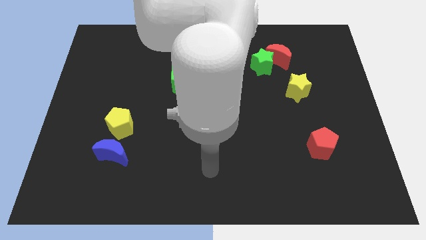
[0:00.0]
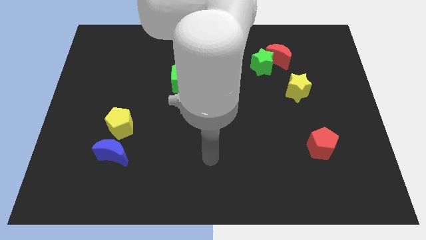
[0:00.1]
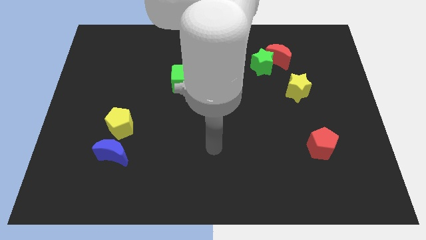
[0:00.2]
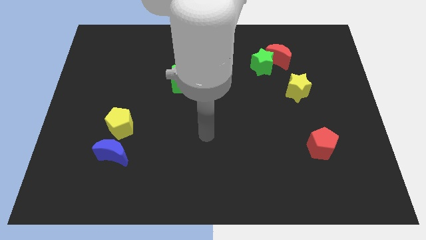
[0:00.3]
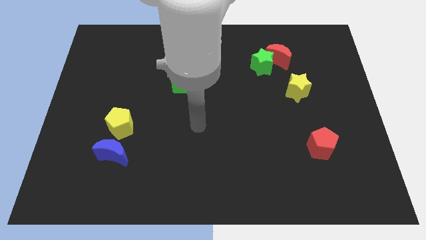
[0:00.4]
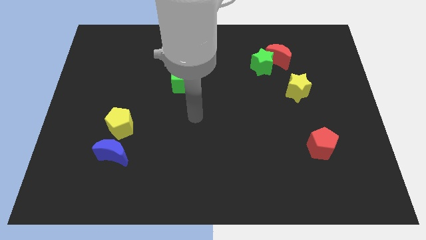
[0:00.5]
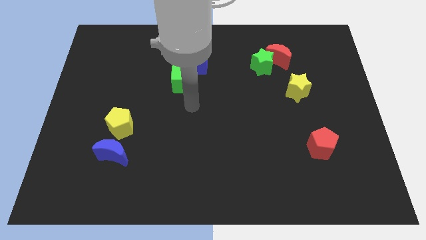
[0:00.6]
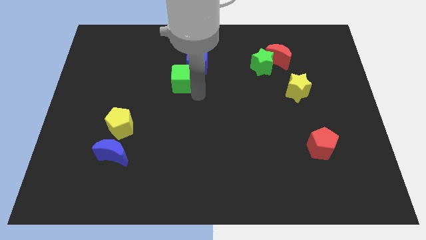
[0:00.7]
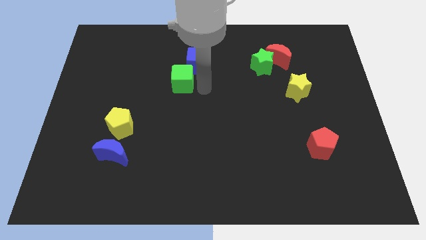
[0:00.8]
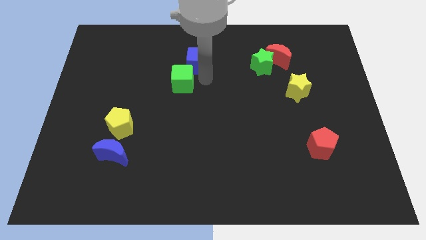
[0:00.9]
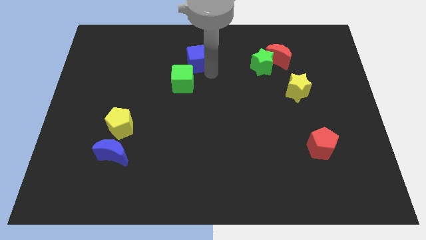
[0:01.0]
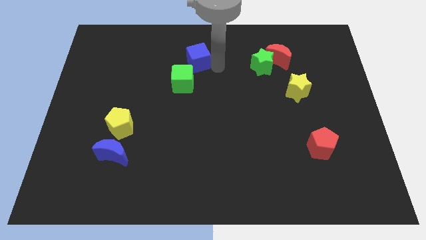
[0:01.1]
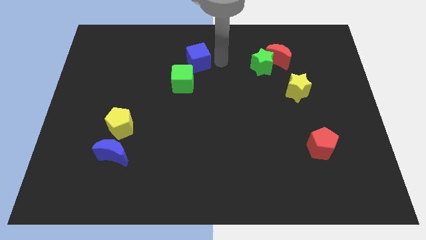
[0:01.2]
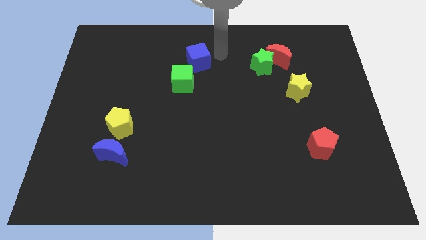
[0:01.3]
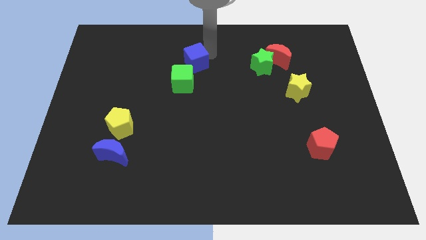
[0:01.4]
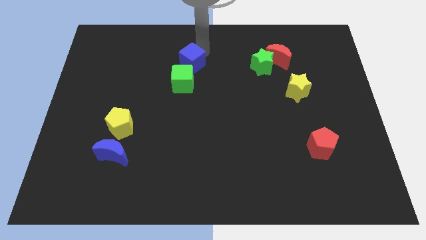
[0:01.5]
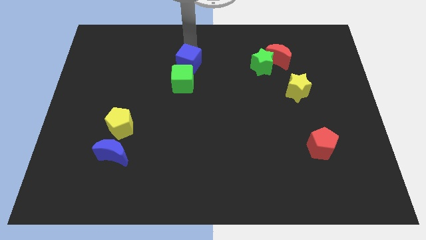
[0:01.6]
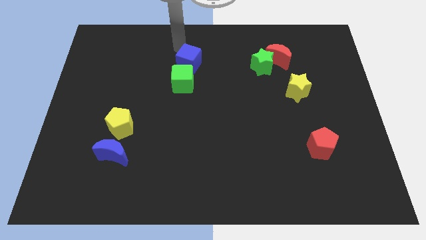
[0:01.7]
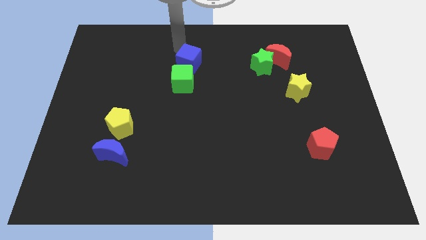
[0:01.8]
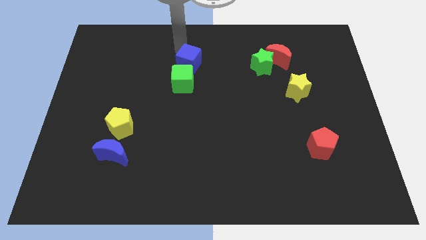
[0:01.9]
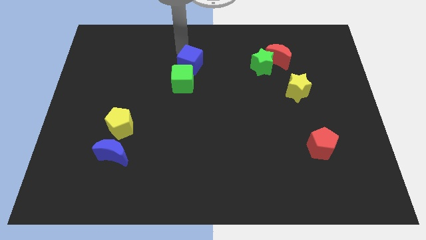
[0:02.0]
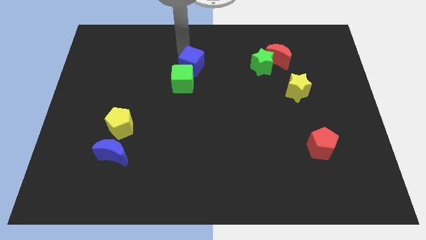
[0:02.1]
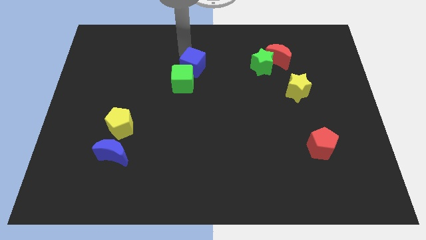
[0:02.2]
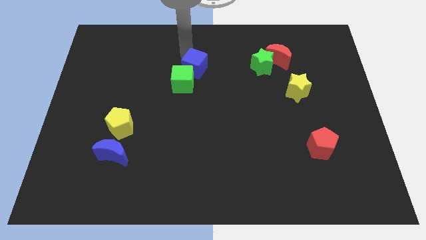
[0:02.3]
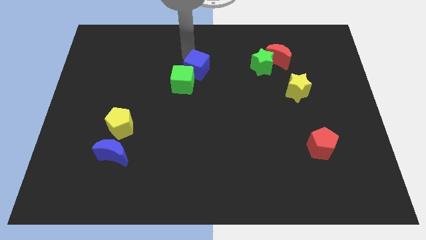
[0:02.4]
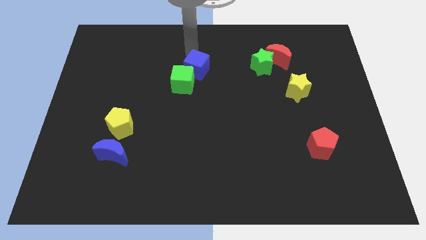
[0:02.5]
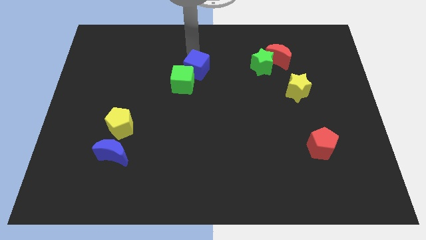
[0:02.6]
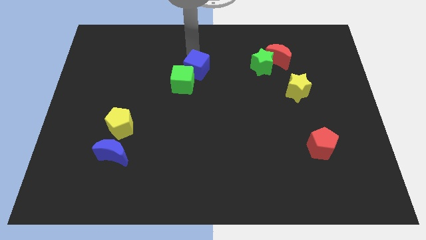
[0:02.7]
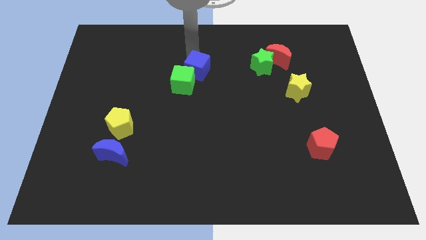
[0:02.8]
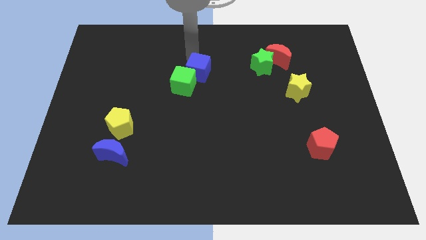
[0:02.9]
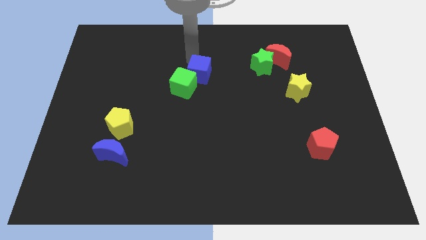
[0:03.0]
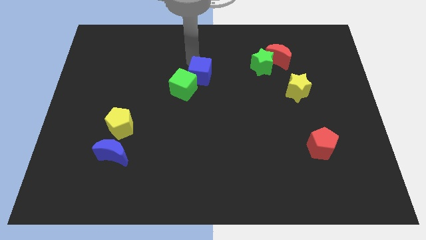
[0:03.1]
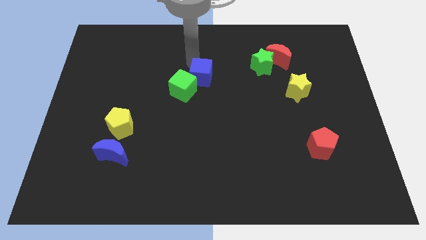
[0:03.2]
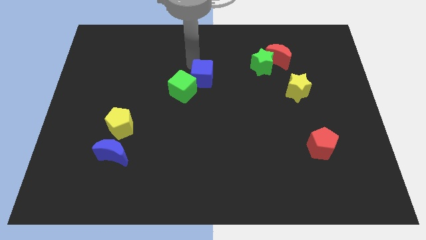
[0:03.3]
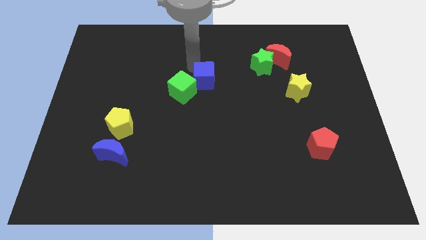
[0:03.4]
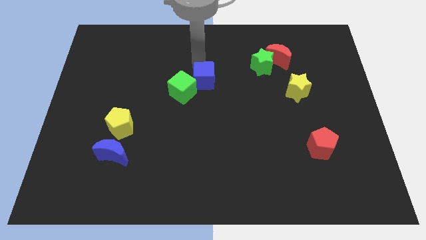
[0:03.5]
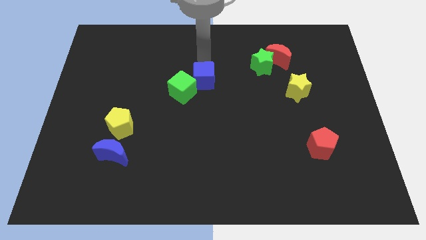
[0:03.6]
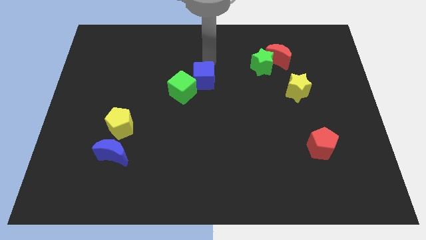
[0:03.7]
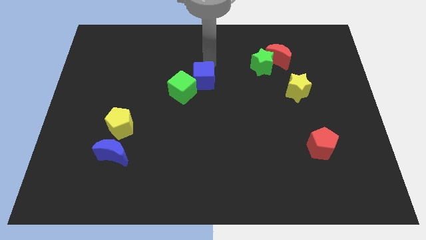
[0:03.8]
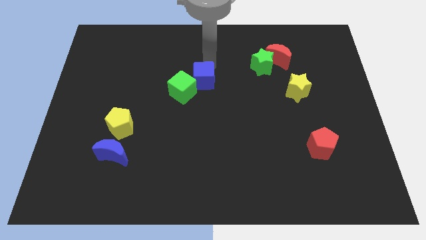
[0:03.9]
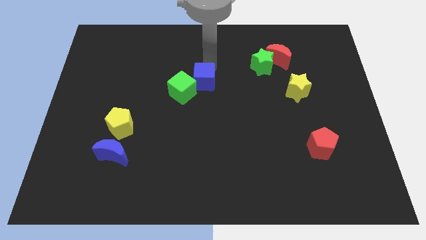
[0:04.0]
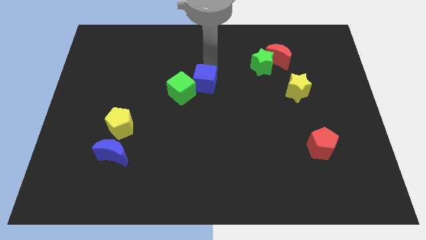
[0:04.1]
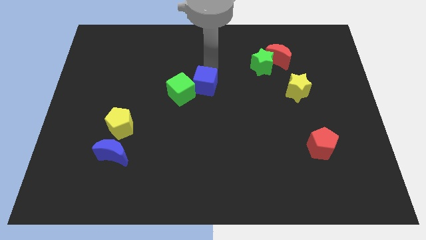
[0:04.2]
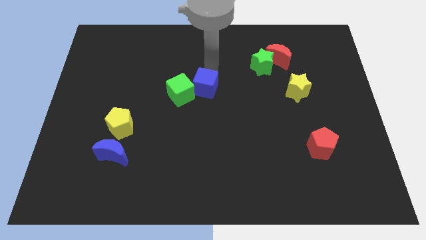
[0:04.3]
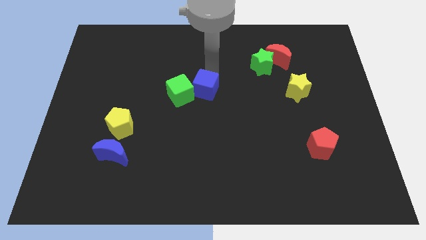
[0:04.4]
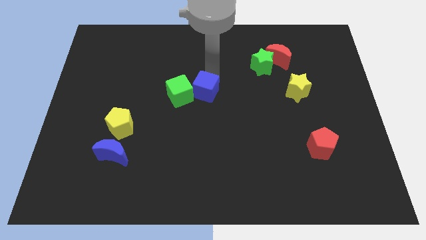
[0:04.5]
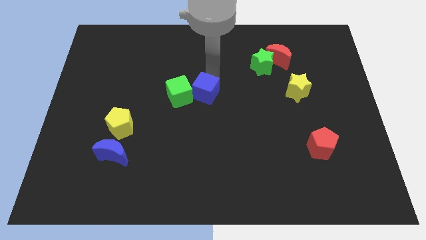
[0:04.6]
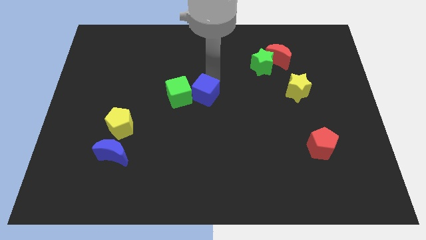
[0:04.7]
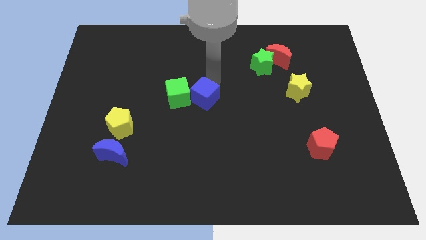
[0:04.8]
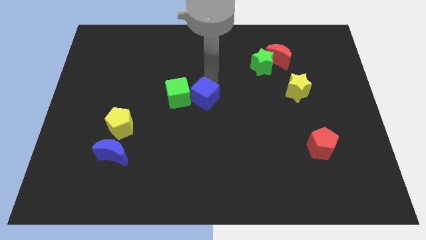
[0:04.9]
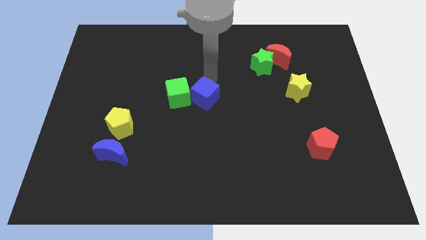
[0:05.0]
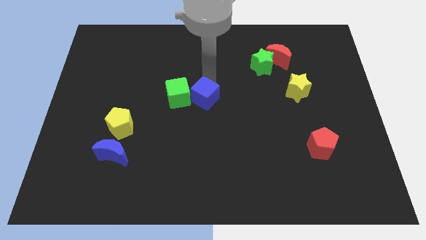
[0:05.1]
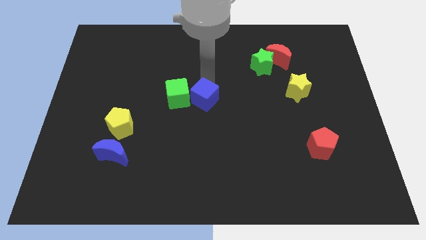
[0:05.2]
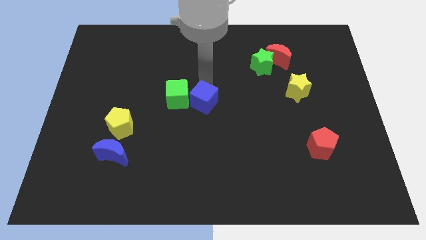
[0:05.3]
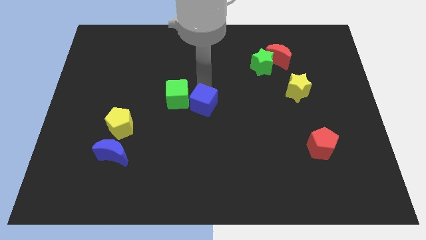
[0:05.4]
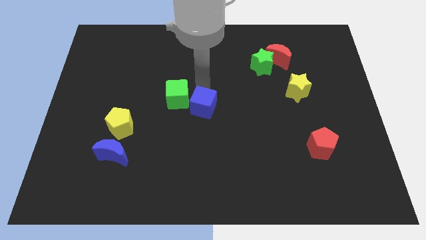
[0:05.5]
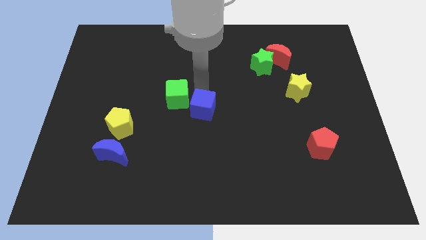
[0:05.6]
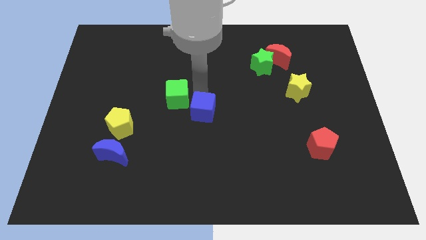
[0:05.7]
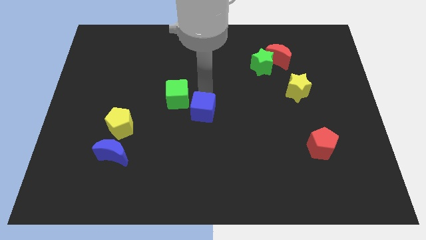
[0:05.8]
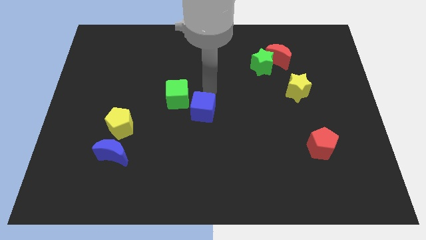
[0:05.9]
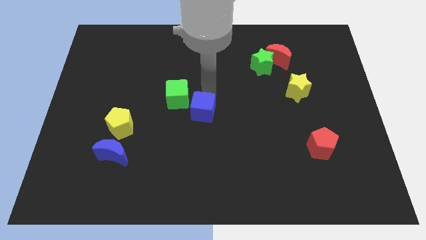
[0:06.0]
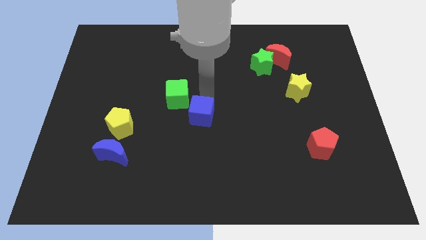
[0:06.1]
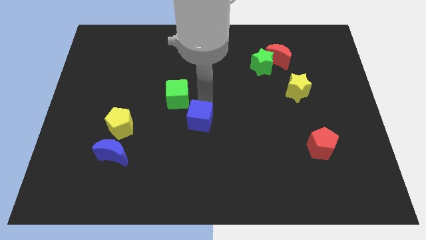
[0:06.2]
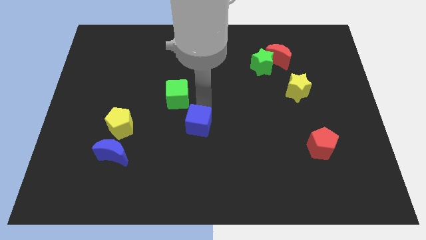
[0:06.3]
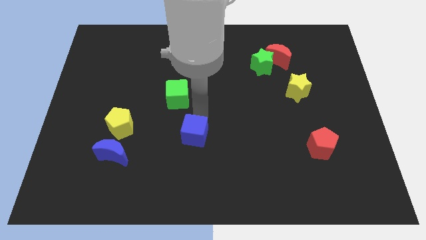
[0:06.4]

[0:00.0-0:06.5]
push the blue cube down

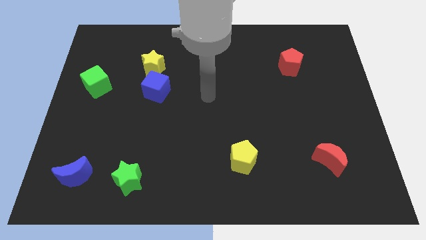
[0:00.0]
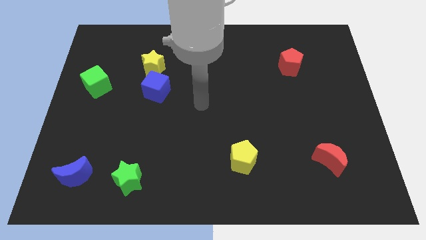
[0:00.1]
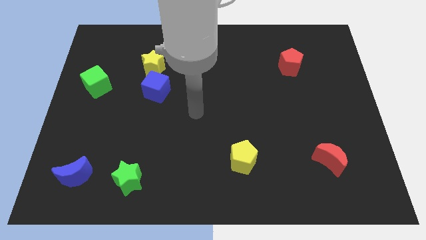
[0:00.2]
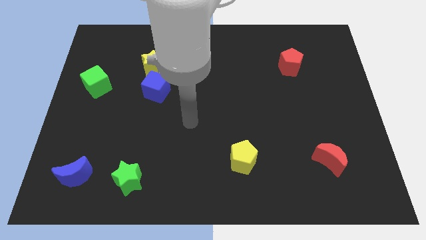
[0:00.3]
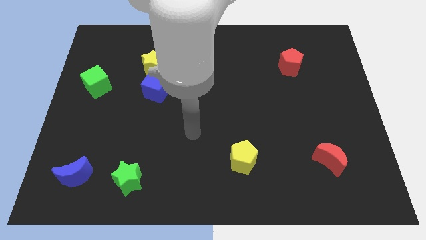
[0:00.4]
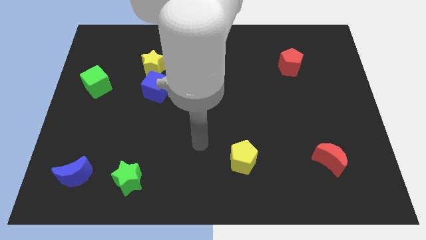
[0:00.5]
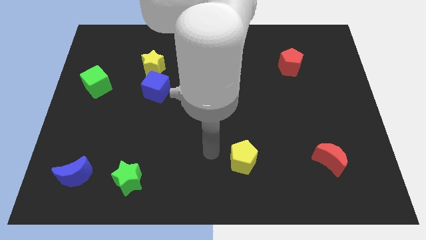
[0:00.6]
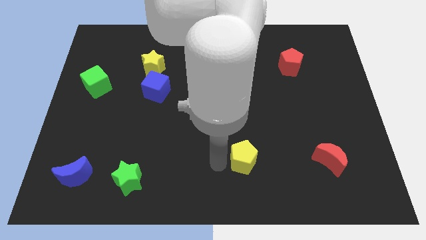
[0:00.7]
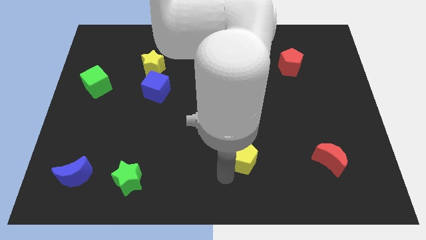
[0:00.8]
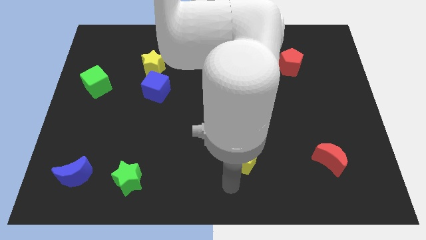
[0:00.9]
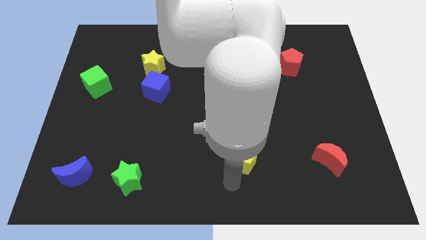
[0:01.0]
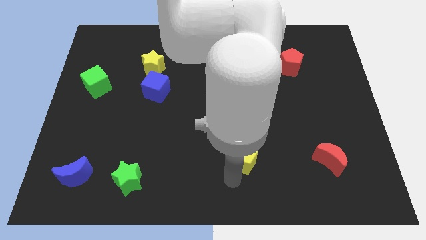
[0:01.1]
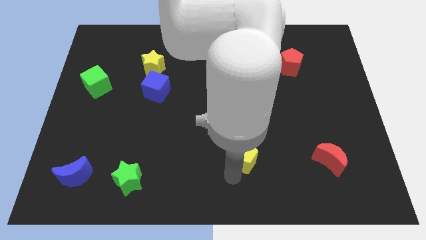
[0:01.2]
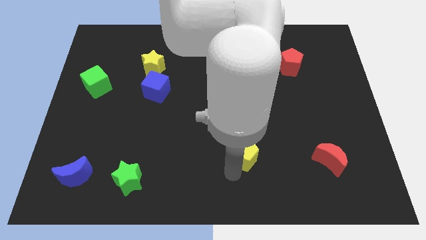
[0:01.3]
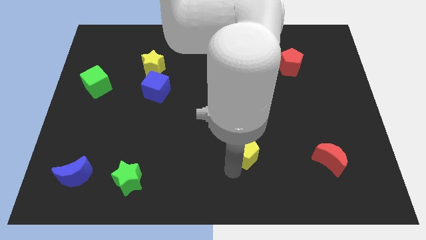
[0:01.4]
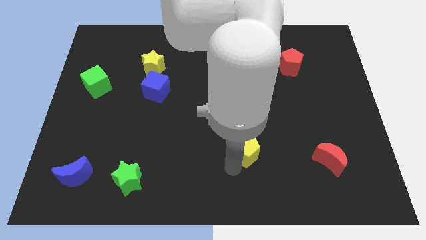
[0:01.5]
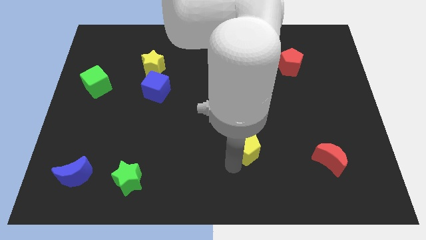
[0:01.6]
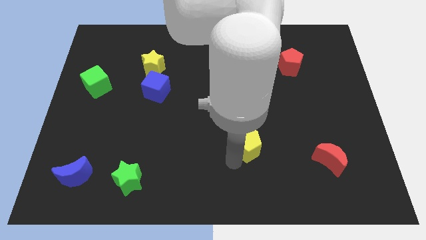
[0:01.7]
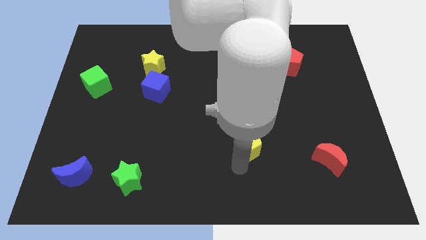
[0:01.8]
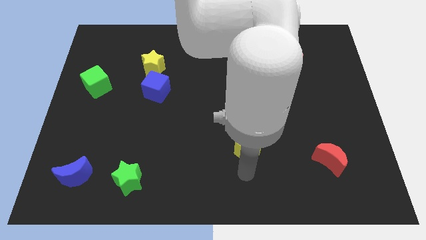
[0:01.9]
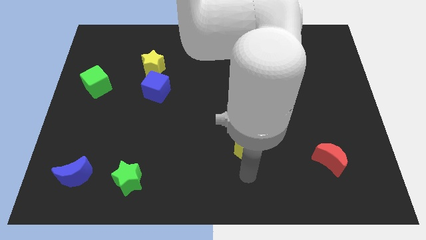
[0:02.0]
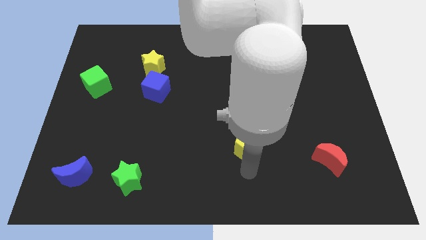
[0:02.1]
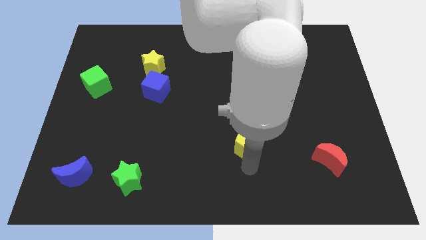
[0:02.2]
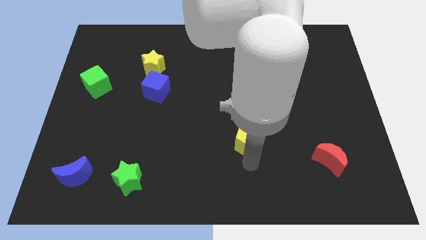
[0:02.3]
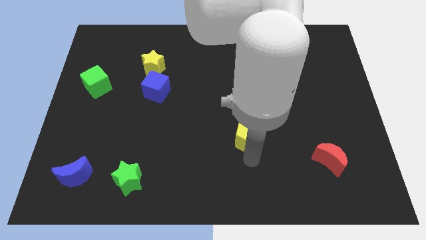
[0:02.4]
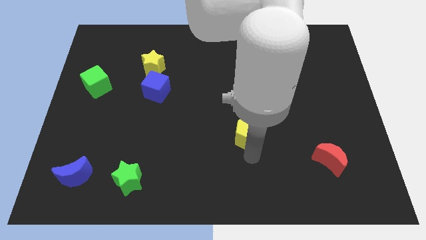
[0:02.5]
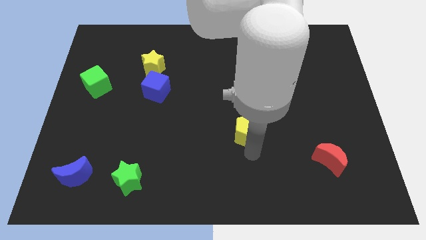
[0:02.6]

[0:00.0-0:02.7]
slightly slide the yellow pentagon up
